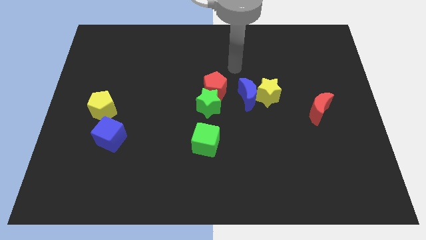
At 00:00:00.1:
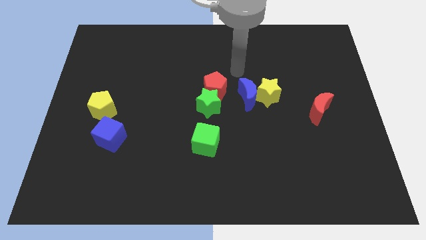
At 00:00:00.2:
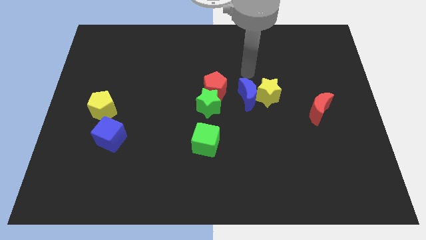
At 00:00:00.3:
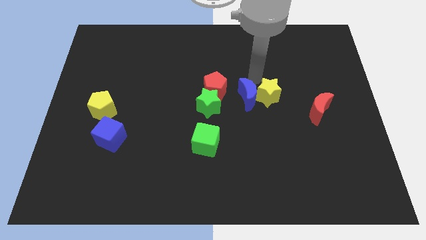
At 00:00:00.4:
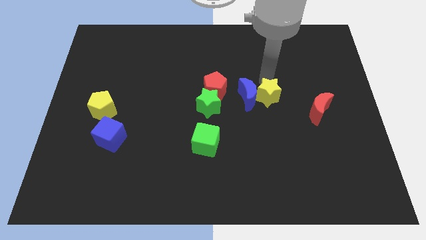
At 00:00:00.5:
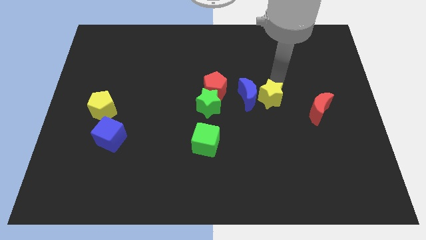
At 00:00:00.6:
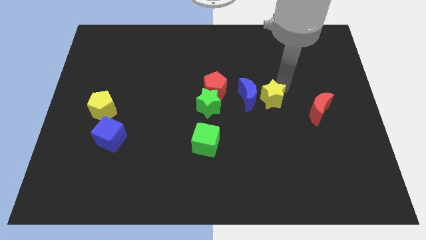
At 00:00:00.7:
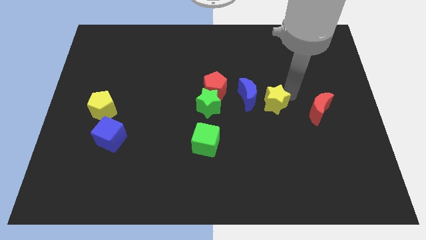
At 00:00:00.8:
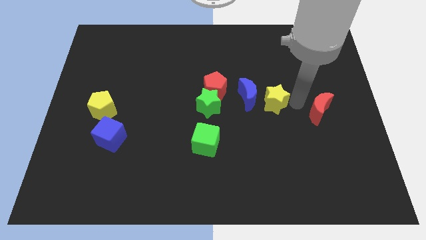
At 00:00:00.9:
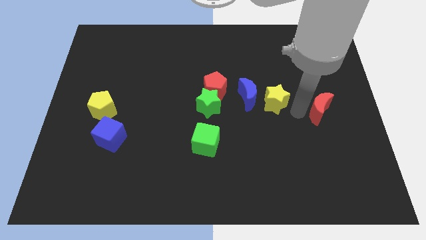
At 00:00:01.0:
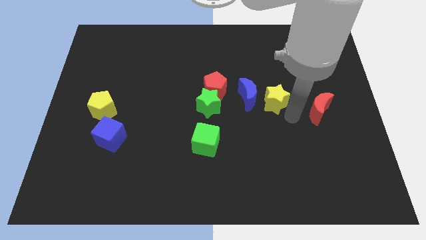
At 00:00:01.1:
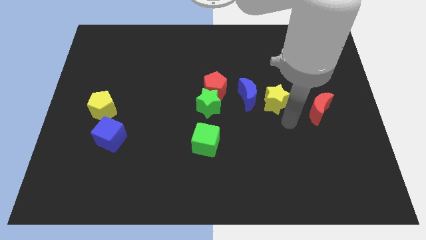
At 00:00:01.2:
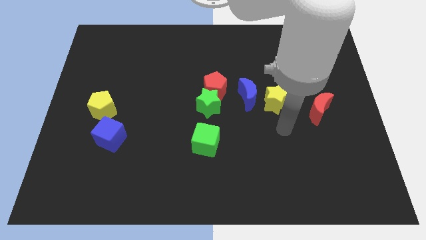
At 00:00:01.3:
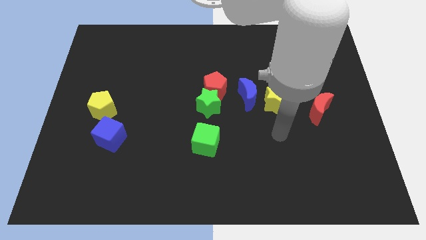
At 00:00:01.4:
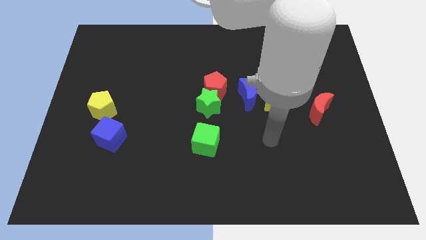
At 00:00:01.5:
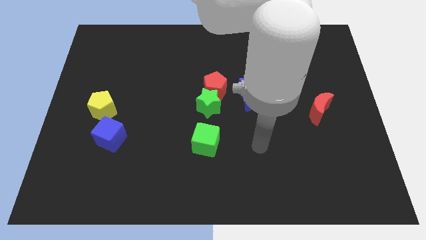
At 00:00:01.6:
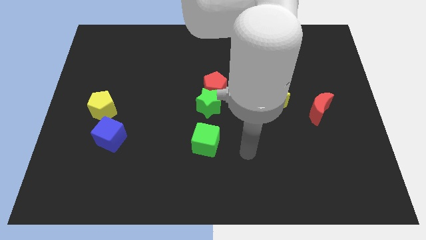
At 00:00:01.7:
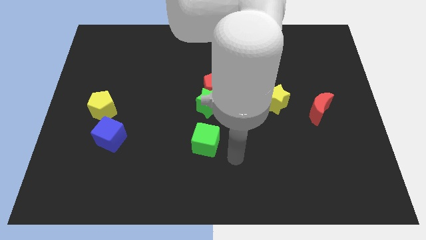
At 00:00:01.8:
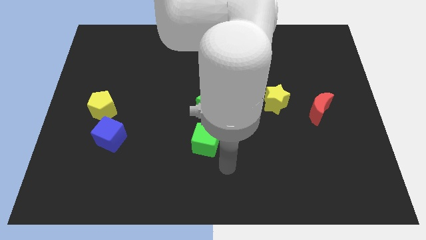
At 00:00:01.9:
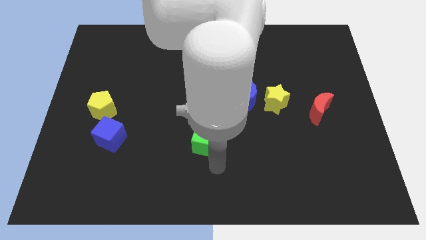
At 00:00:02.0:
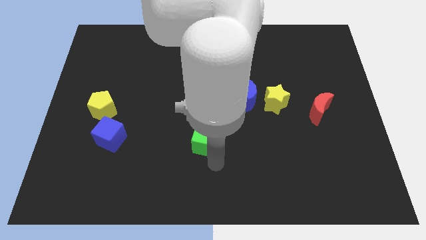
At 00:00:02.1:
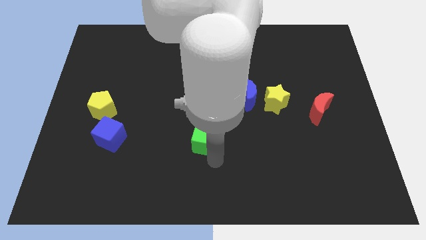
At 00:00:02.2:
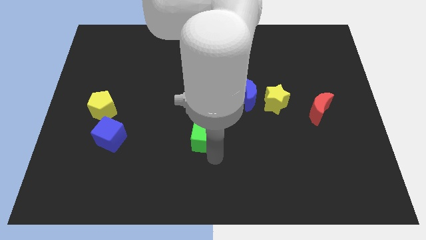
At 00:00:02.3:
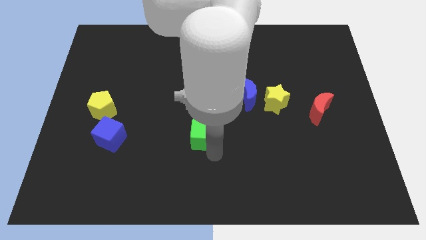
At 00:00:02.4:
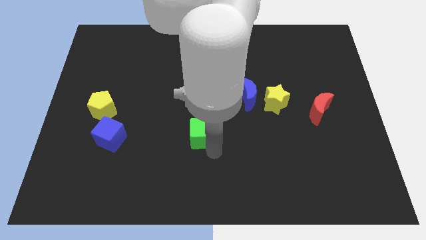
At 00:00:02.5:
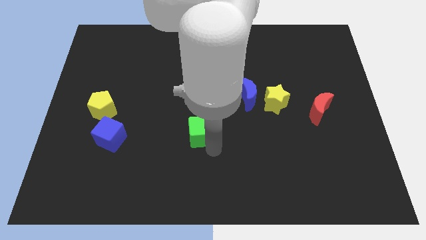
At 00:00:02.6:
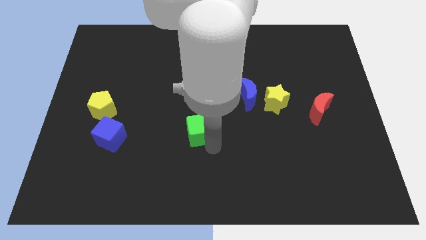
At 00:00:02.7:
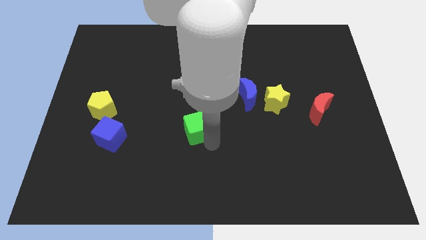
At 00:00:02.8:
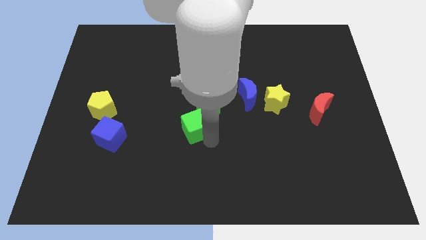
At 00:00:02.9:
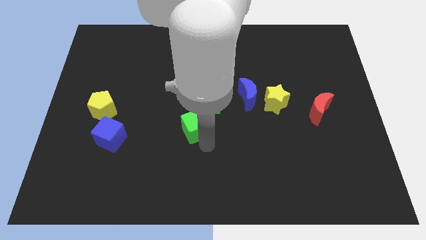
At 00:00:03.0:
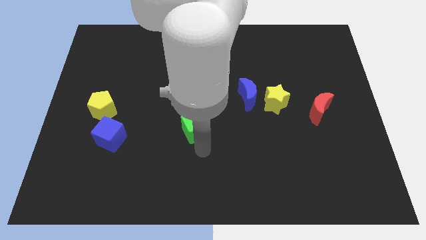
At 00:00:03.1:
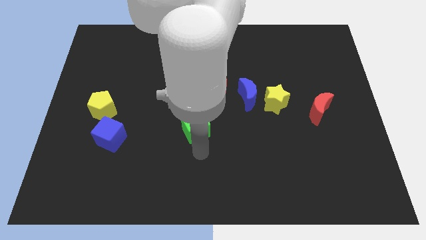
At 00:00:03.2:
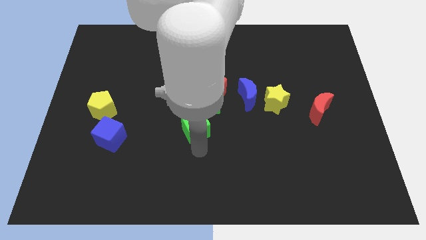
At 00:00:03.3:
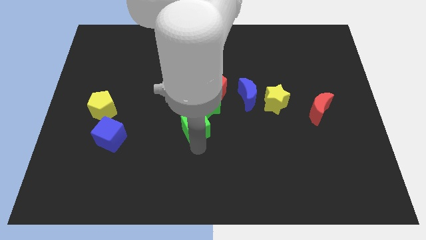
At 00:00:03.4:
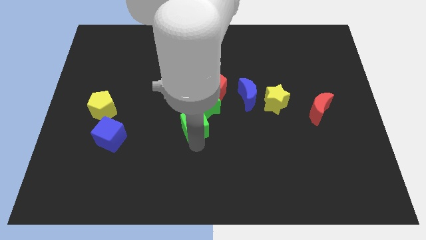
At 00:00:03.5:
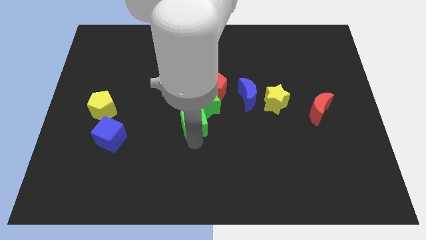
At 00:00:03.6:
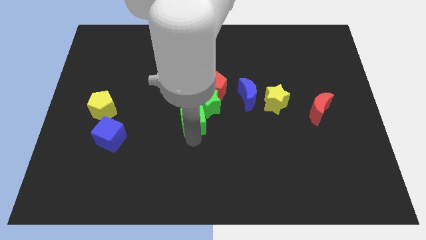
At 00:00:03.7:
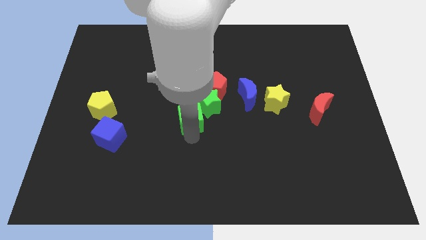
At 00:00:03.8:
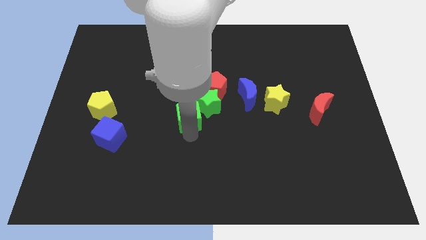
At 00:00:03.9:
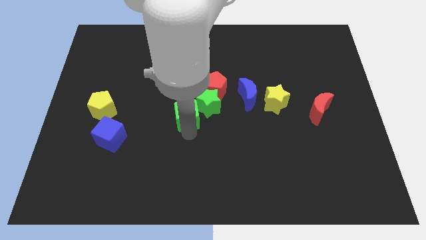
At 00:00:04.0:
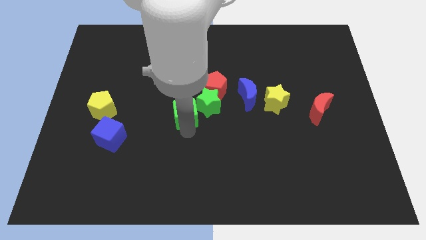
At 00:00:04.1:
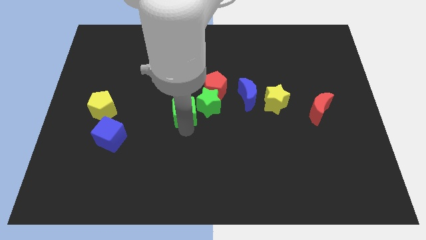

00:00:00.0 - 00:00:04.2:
slightly push the green cube upwards

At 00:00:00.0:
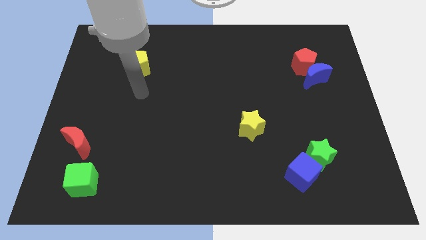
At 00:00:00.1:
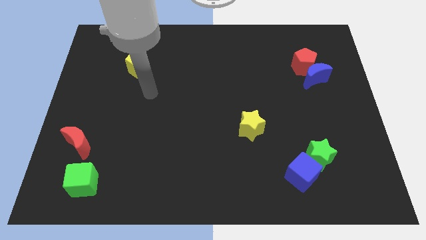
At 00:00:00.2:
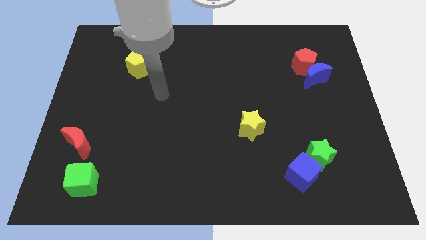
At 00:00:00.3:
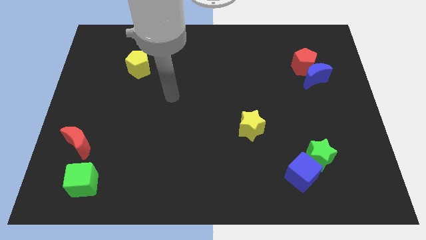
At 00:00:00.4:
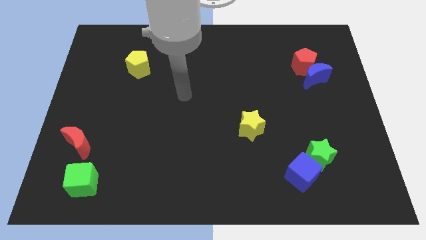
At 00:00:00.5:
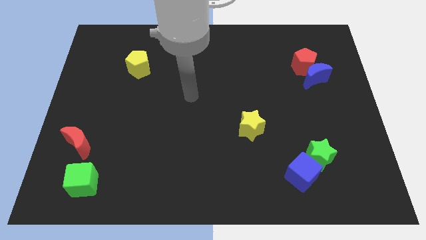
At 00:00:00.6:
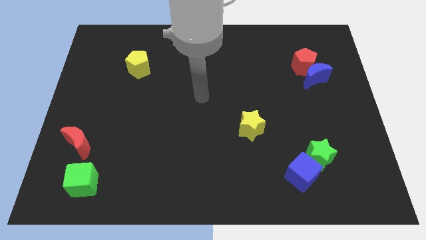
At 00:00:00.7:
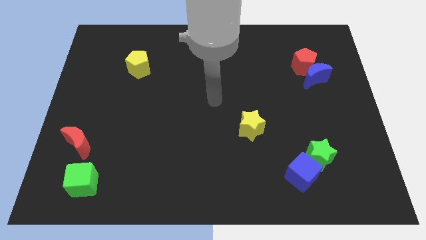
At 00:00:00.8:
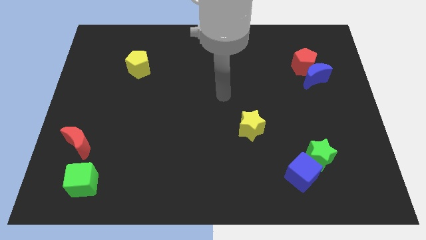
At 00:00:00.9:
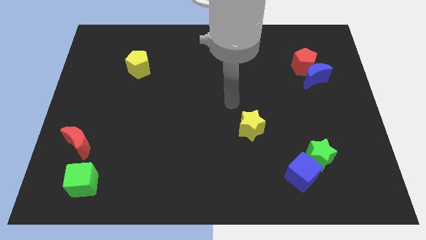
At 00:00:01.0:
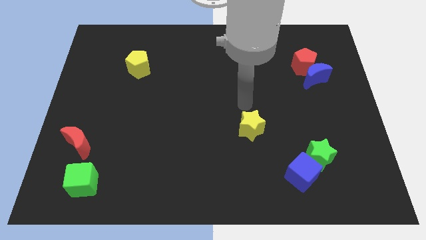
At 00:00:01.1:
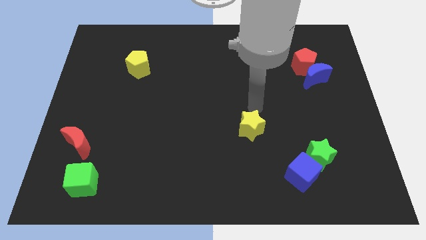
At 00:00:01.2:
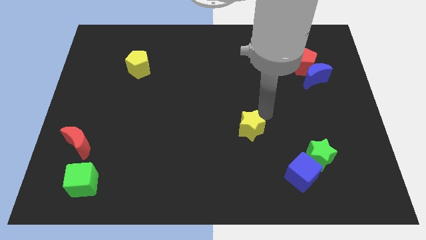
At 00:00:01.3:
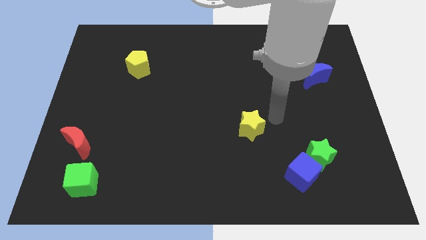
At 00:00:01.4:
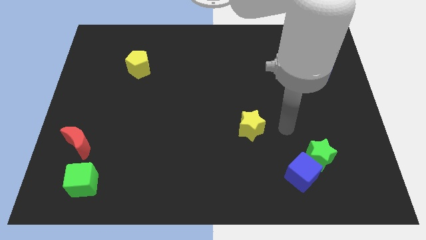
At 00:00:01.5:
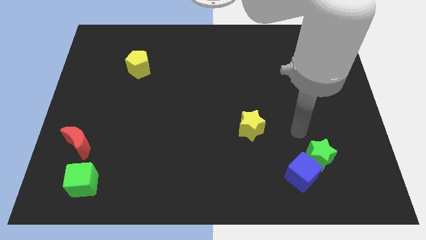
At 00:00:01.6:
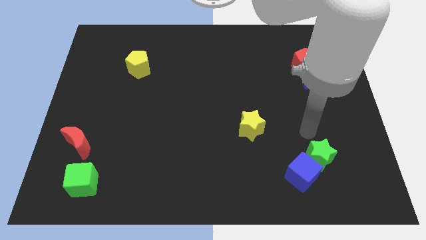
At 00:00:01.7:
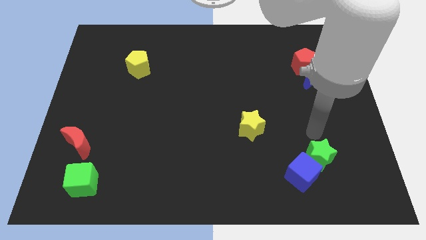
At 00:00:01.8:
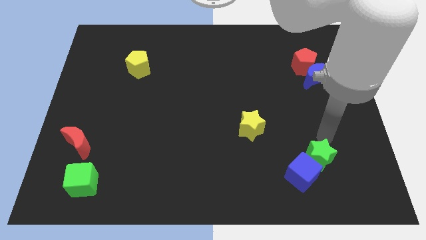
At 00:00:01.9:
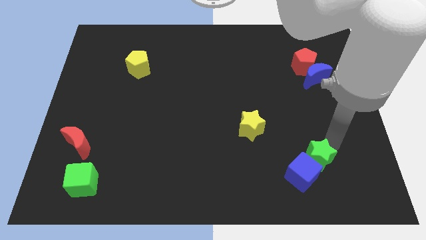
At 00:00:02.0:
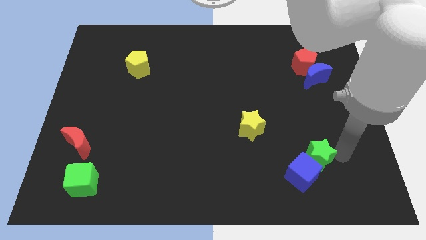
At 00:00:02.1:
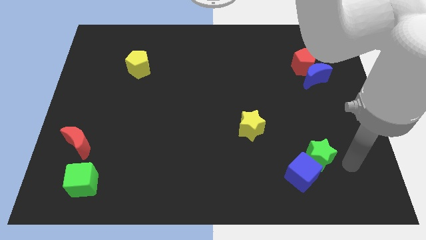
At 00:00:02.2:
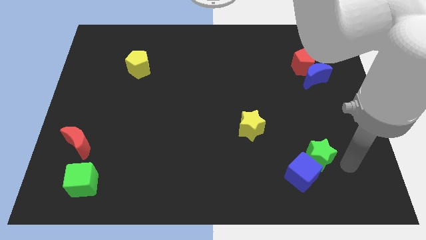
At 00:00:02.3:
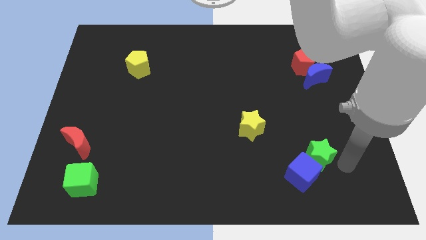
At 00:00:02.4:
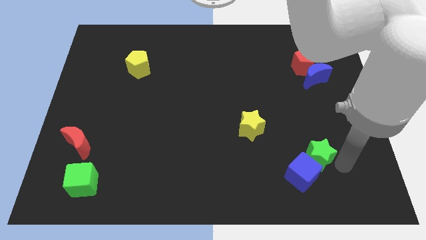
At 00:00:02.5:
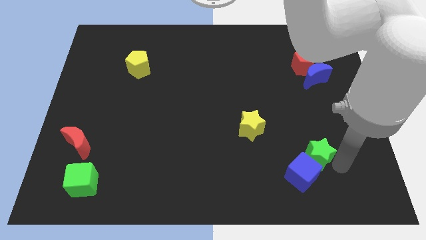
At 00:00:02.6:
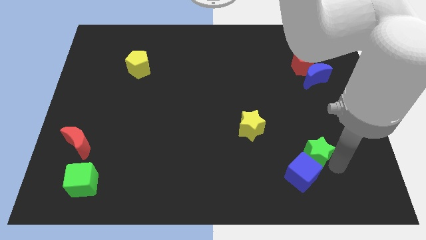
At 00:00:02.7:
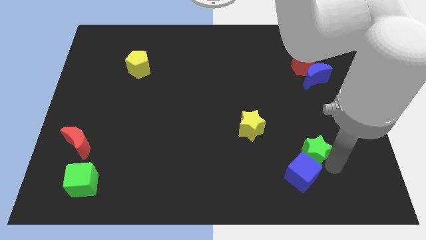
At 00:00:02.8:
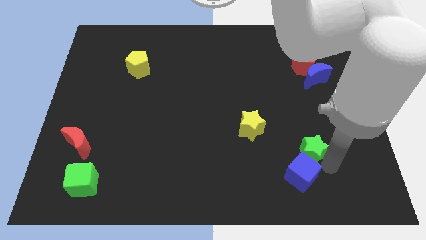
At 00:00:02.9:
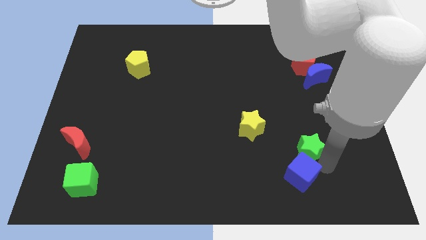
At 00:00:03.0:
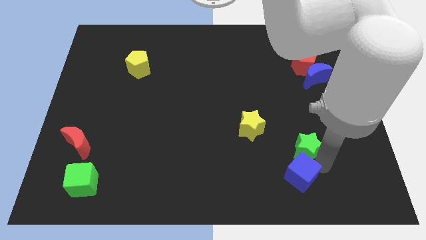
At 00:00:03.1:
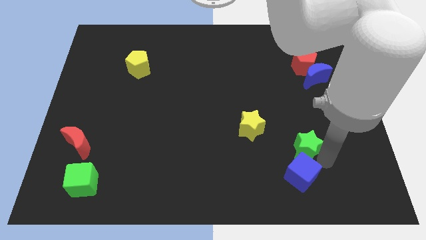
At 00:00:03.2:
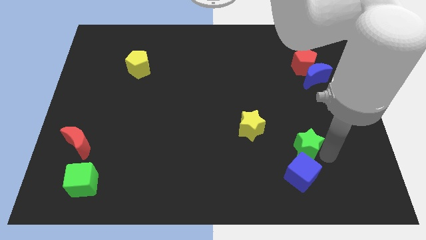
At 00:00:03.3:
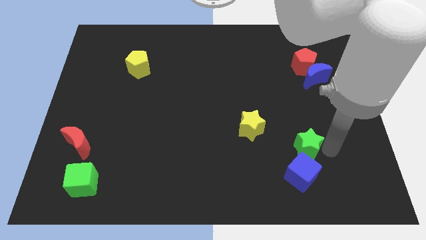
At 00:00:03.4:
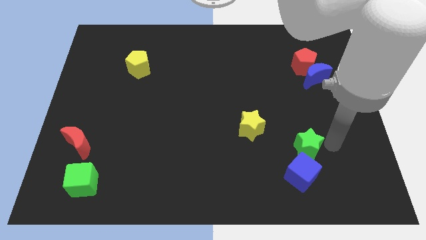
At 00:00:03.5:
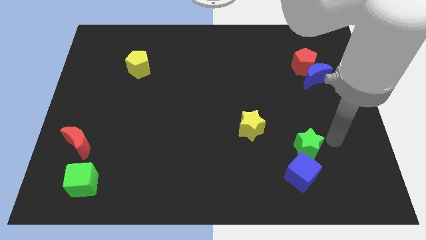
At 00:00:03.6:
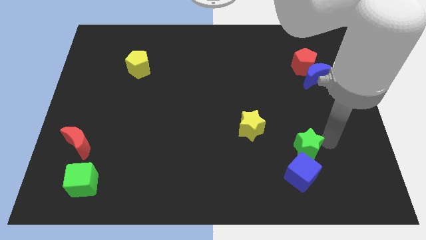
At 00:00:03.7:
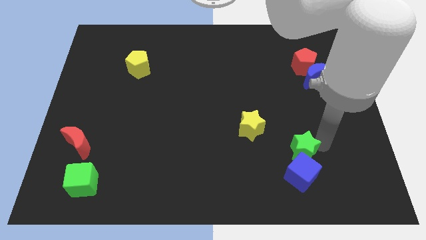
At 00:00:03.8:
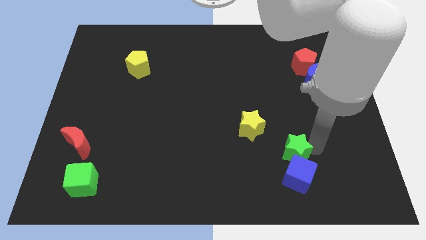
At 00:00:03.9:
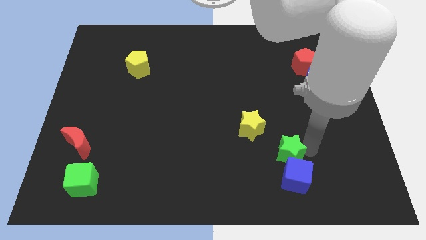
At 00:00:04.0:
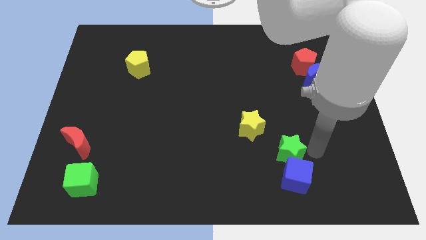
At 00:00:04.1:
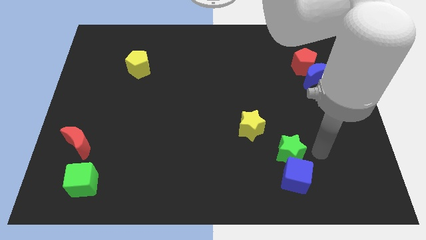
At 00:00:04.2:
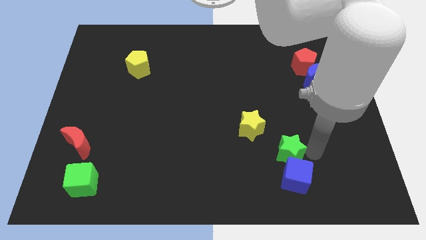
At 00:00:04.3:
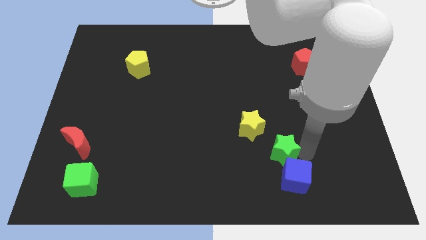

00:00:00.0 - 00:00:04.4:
slightly move the green star left
